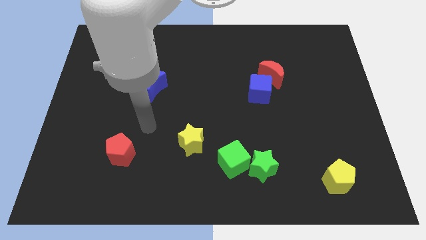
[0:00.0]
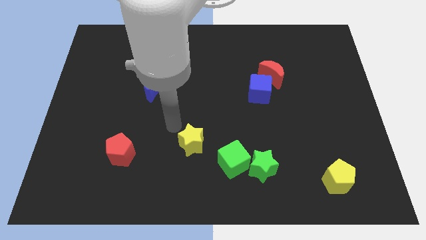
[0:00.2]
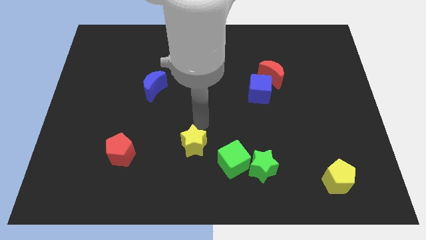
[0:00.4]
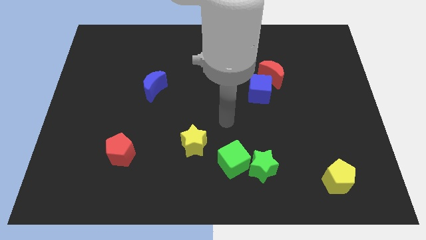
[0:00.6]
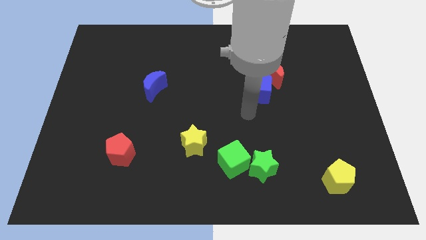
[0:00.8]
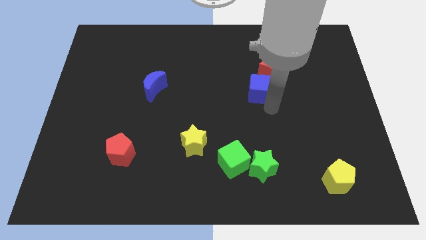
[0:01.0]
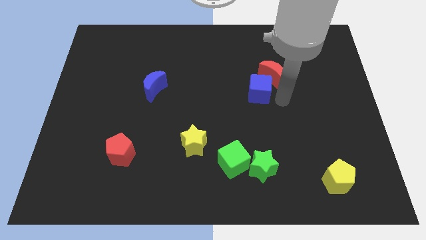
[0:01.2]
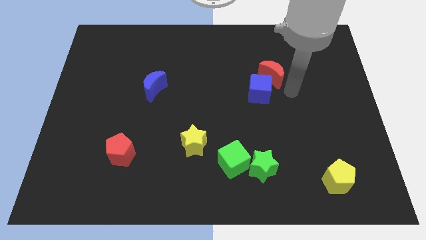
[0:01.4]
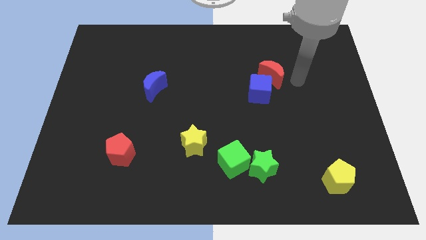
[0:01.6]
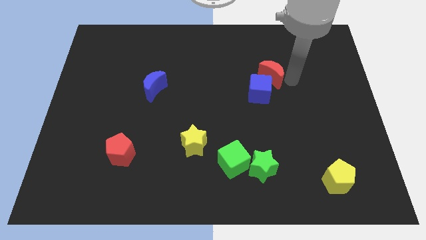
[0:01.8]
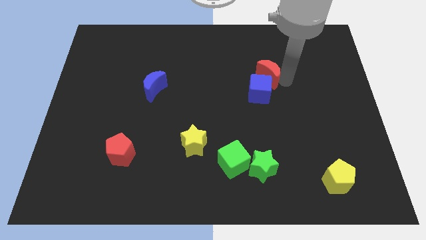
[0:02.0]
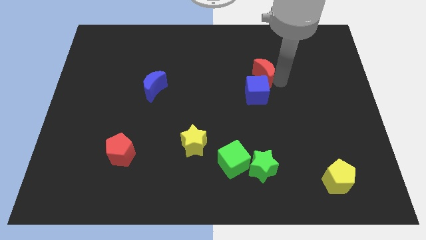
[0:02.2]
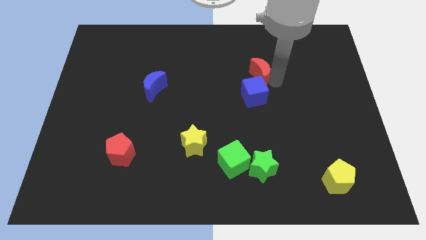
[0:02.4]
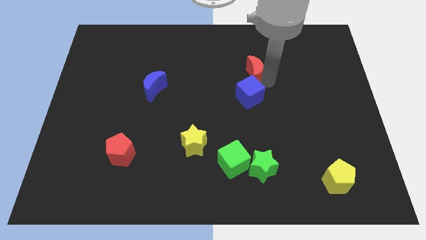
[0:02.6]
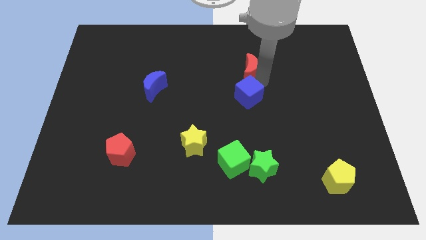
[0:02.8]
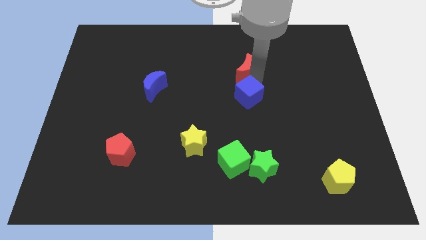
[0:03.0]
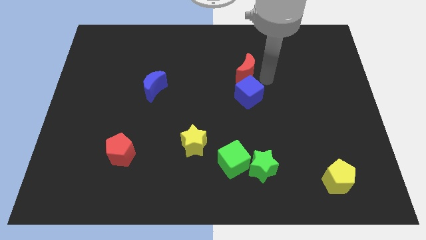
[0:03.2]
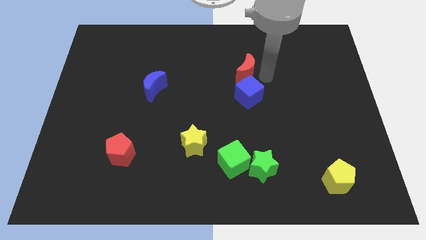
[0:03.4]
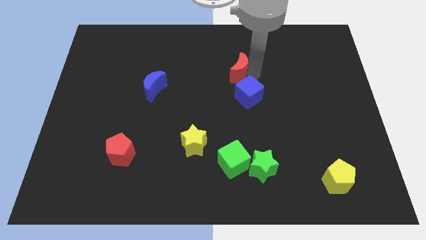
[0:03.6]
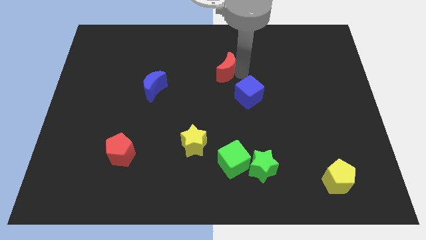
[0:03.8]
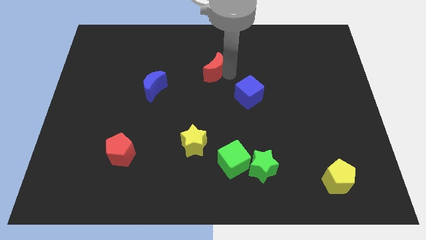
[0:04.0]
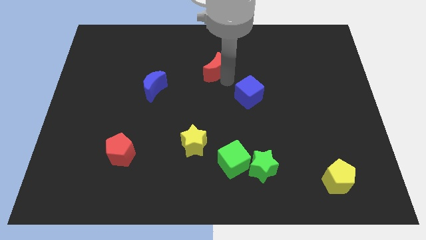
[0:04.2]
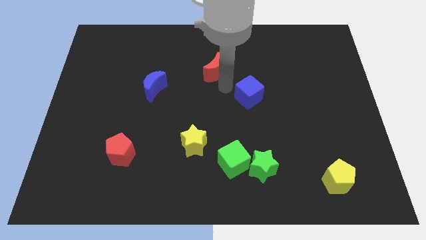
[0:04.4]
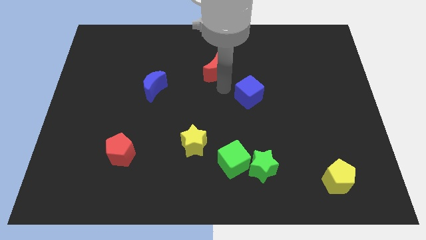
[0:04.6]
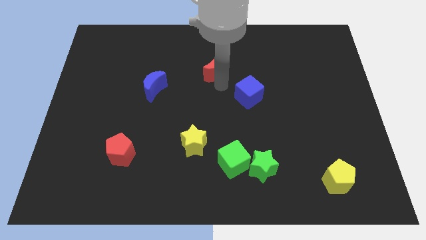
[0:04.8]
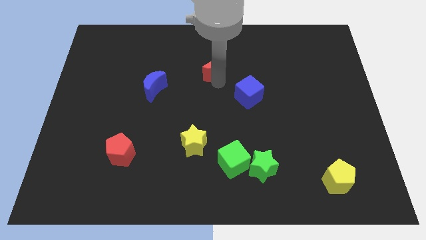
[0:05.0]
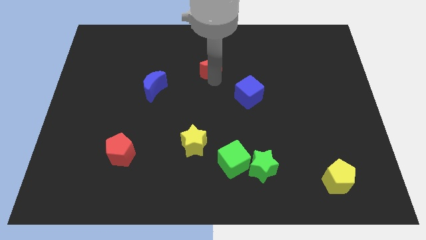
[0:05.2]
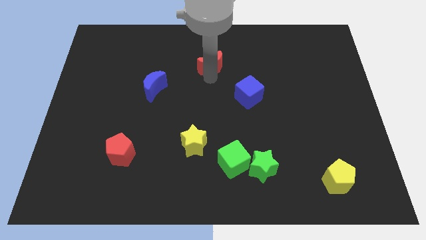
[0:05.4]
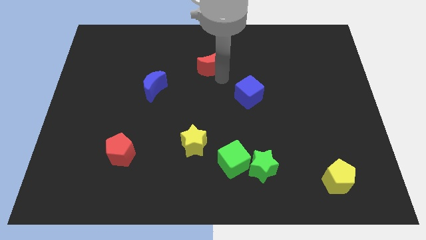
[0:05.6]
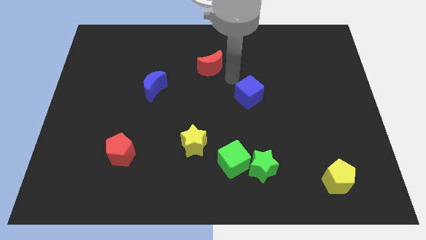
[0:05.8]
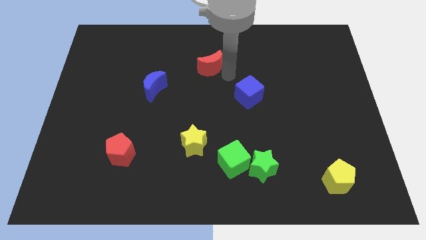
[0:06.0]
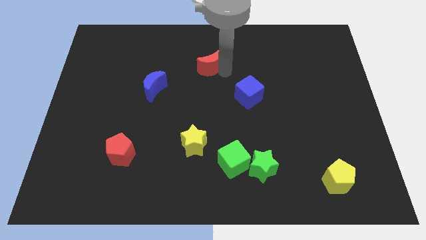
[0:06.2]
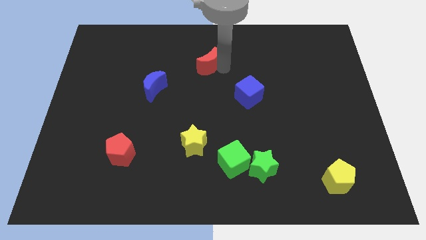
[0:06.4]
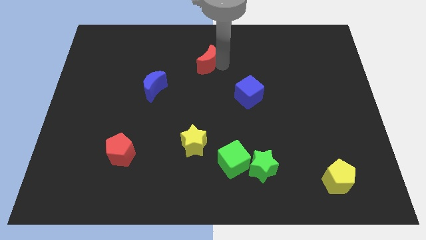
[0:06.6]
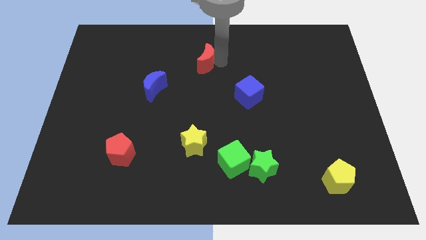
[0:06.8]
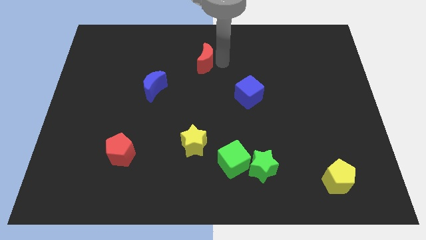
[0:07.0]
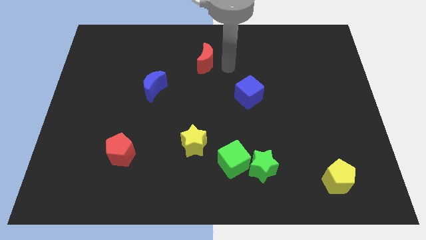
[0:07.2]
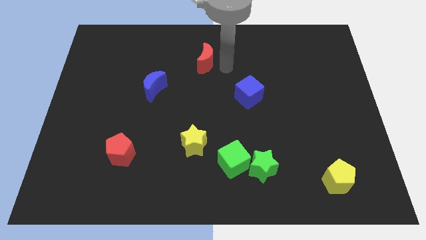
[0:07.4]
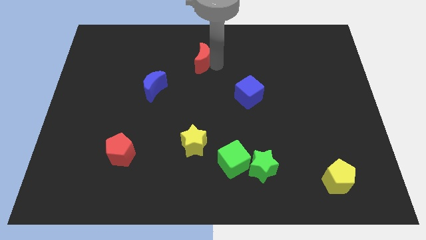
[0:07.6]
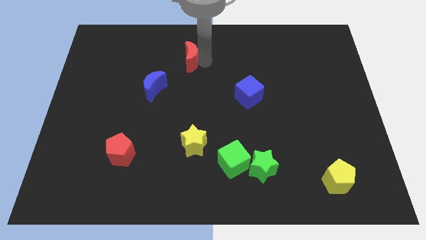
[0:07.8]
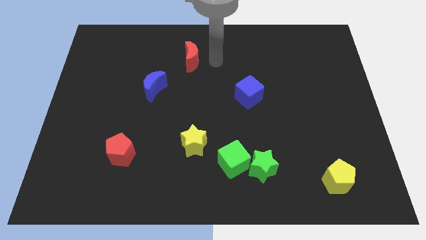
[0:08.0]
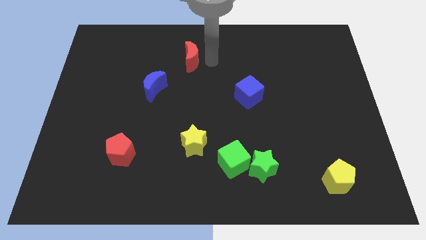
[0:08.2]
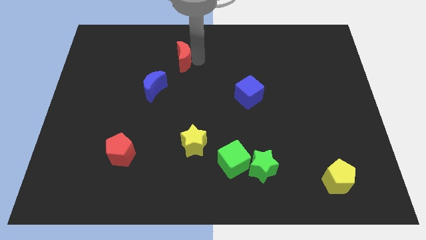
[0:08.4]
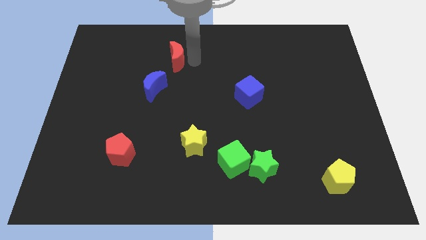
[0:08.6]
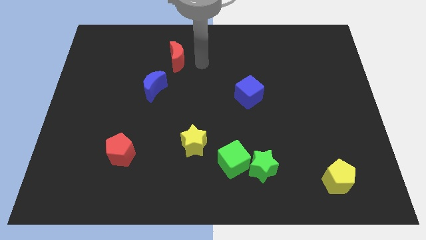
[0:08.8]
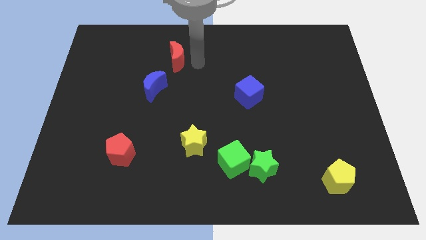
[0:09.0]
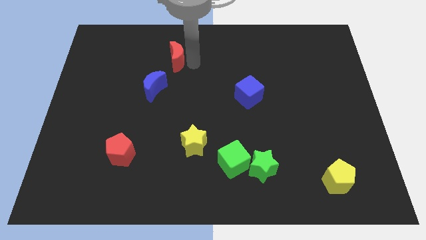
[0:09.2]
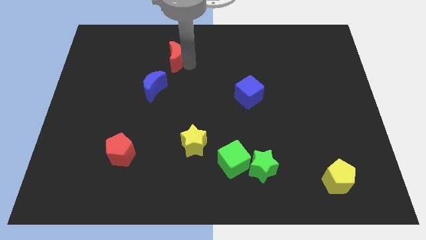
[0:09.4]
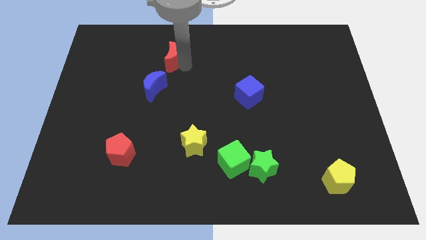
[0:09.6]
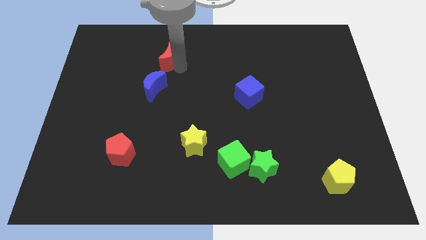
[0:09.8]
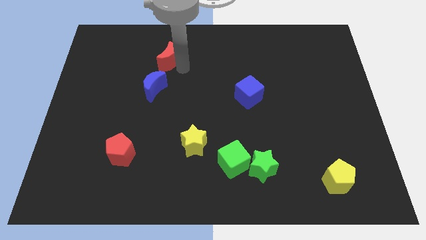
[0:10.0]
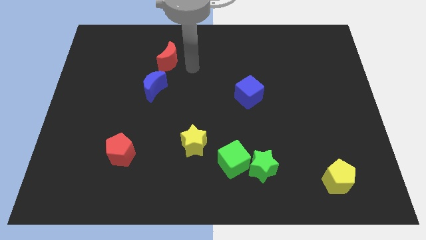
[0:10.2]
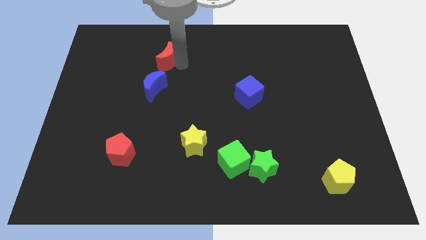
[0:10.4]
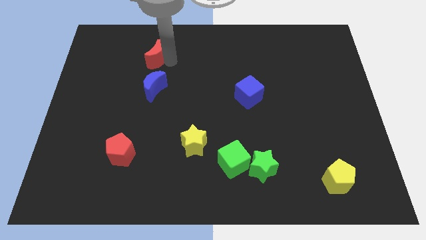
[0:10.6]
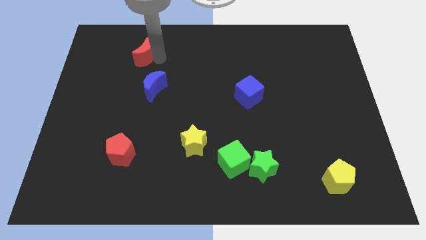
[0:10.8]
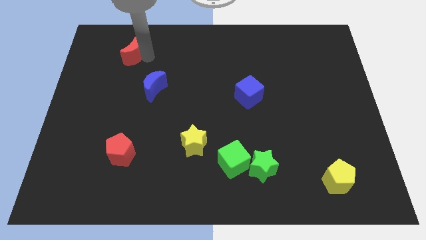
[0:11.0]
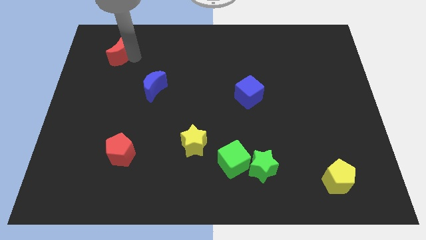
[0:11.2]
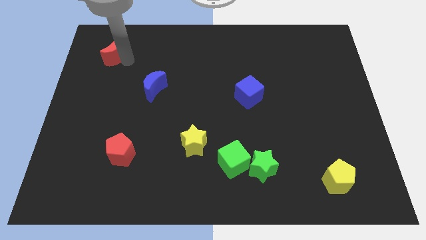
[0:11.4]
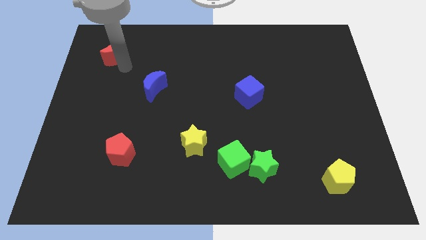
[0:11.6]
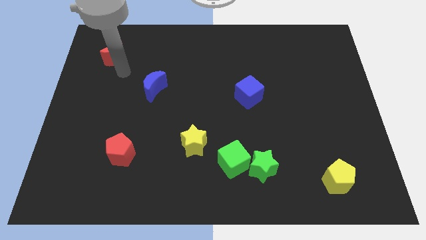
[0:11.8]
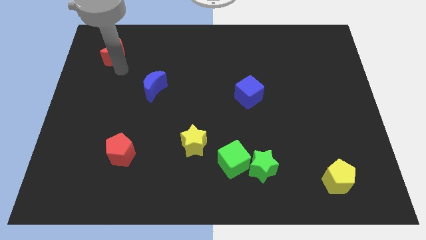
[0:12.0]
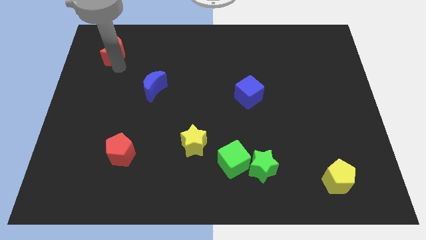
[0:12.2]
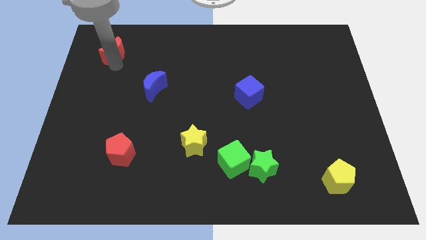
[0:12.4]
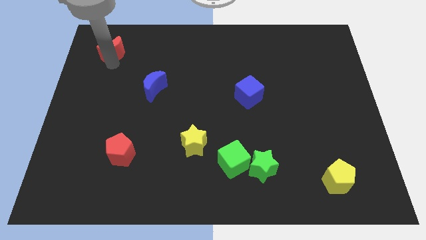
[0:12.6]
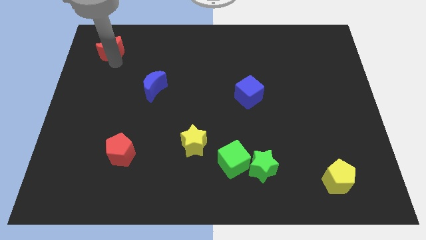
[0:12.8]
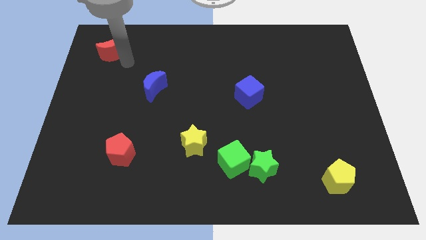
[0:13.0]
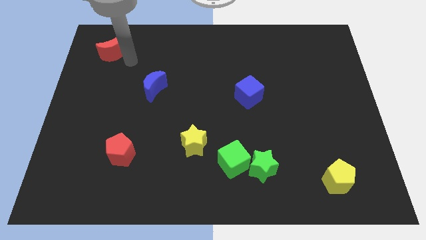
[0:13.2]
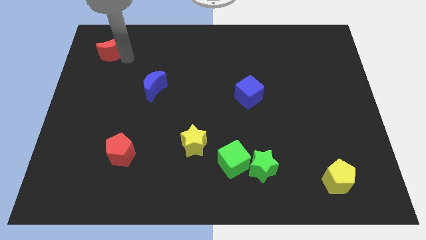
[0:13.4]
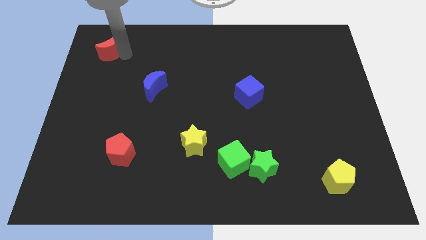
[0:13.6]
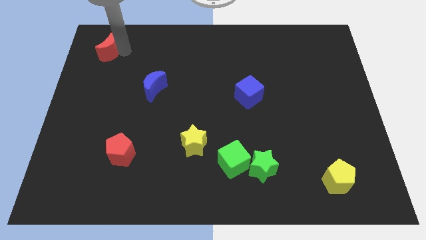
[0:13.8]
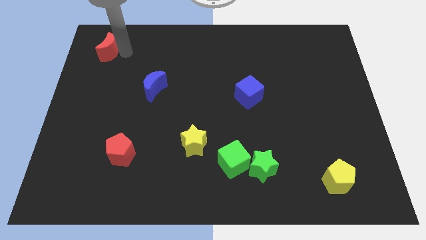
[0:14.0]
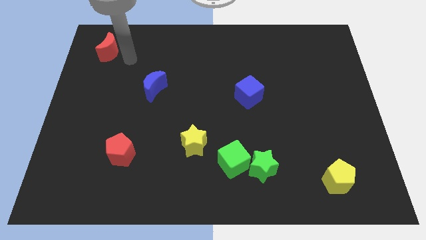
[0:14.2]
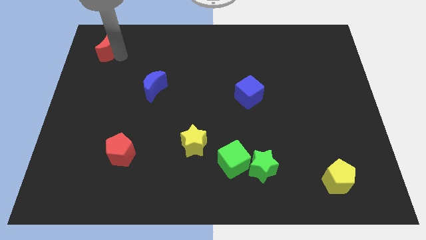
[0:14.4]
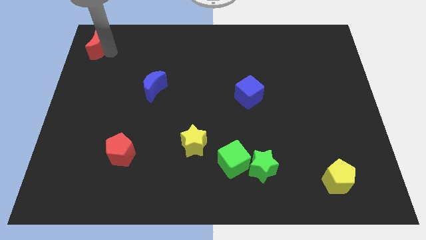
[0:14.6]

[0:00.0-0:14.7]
move the red moon to the upper left corner
